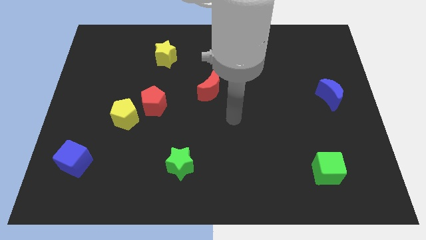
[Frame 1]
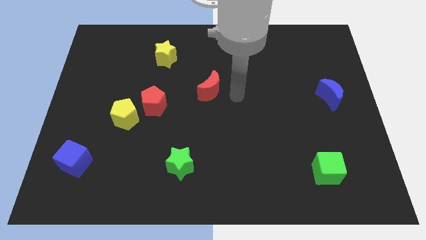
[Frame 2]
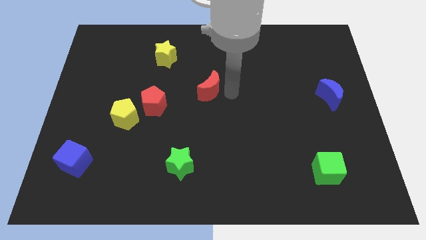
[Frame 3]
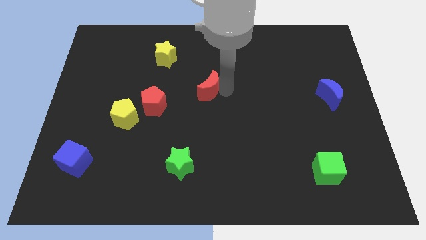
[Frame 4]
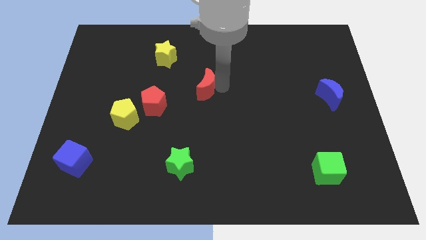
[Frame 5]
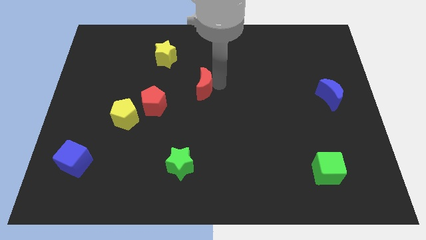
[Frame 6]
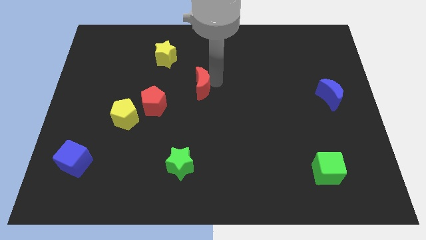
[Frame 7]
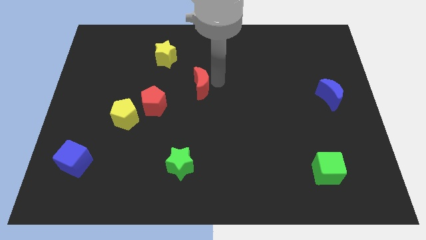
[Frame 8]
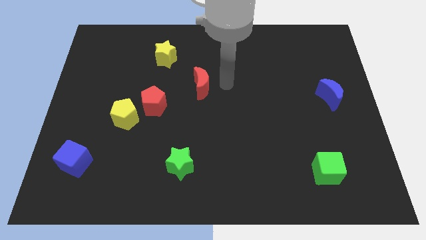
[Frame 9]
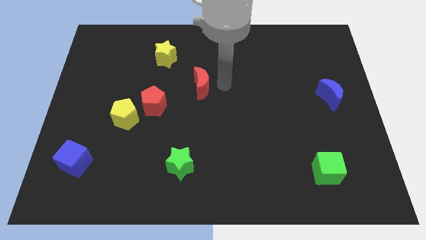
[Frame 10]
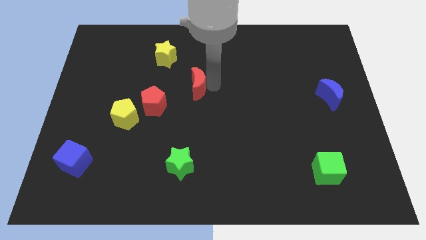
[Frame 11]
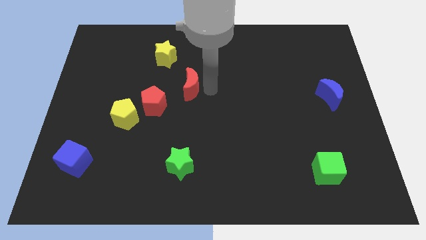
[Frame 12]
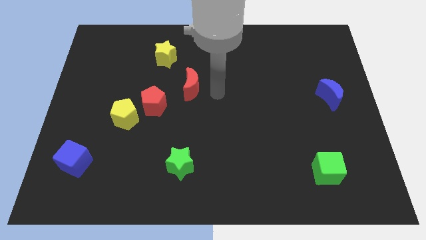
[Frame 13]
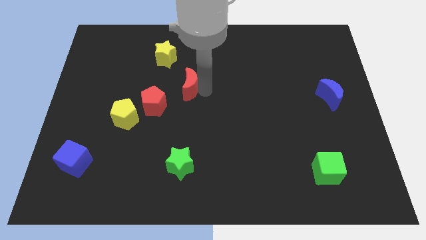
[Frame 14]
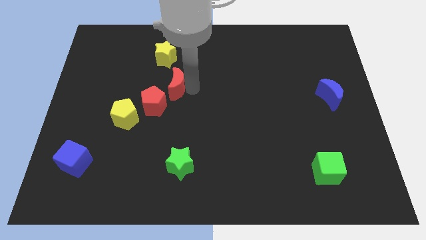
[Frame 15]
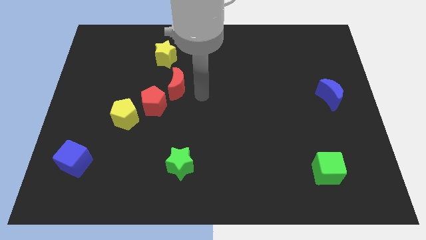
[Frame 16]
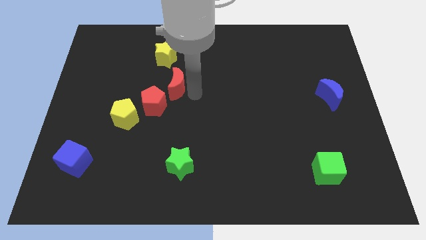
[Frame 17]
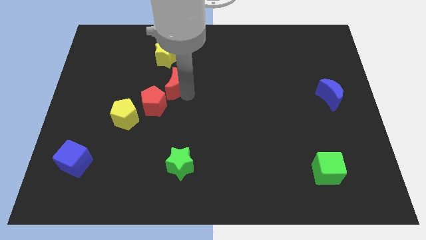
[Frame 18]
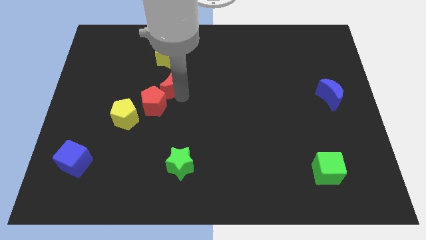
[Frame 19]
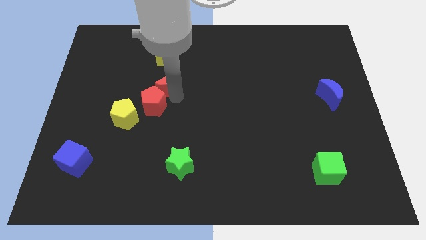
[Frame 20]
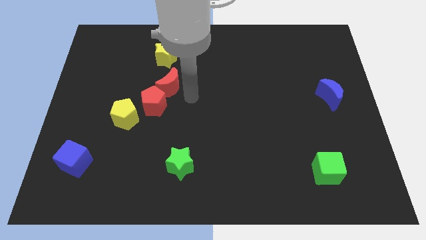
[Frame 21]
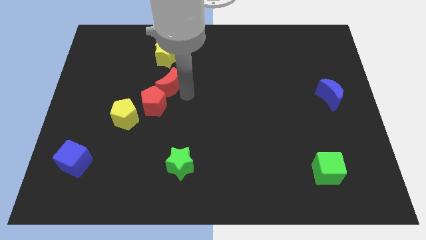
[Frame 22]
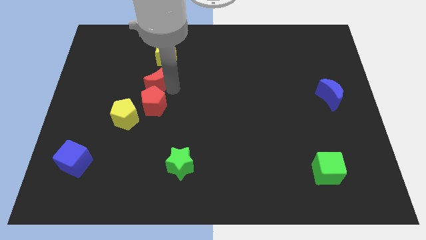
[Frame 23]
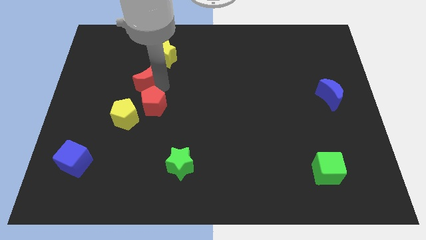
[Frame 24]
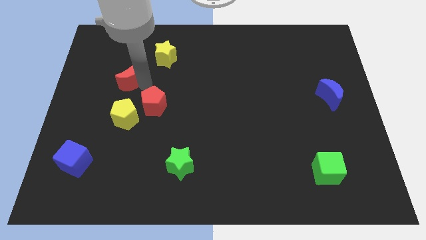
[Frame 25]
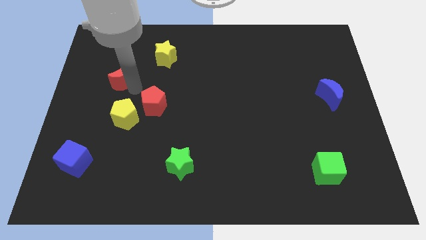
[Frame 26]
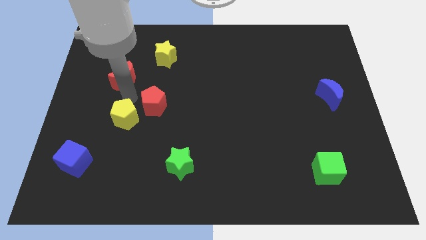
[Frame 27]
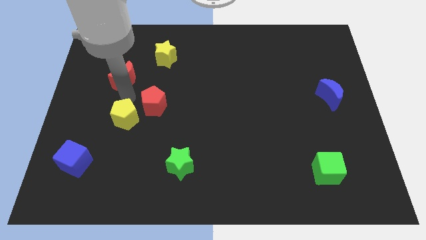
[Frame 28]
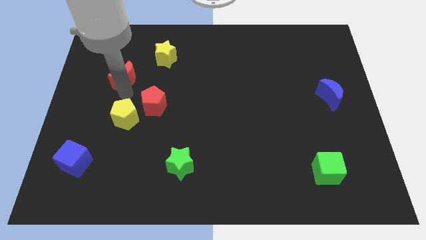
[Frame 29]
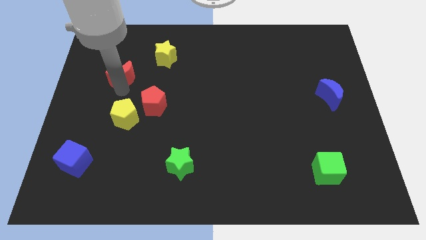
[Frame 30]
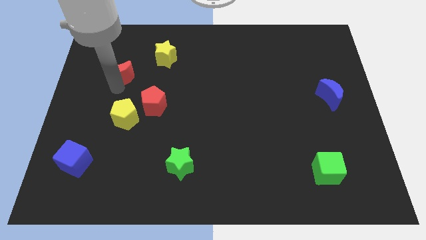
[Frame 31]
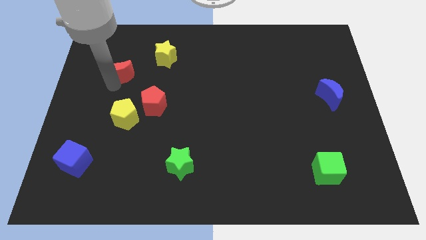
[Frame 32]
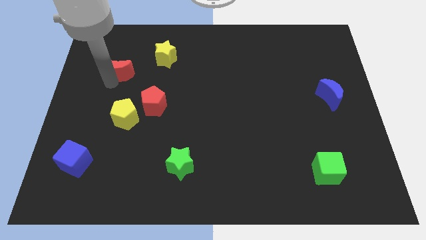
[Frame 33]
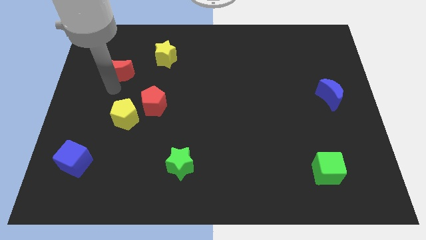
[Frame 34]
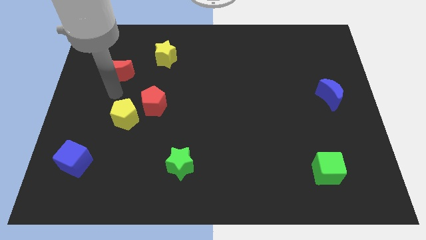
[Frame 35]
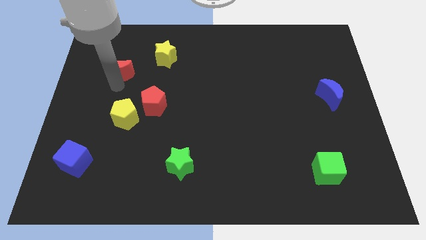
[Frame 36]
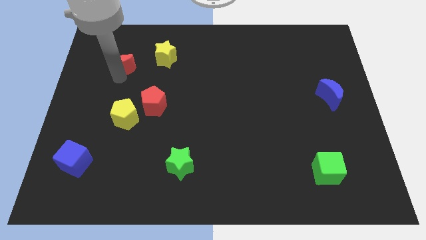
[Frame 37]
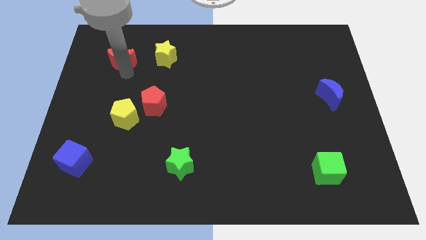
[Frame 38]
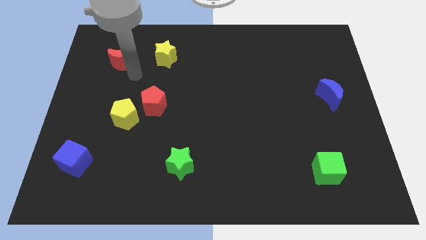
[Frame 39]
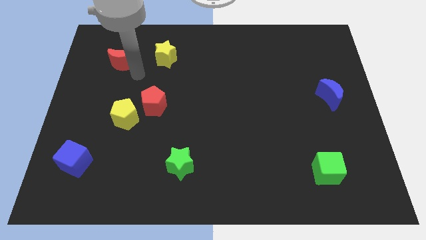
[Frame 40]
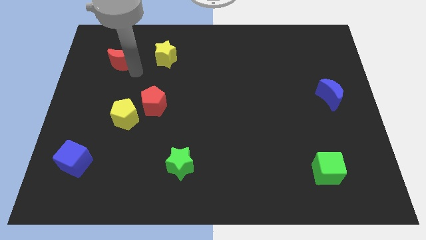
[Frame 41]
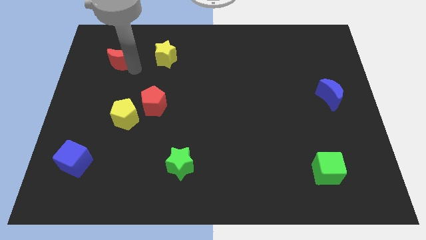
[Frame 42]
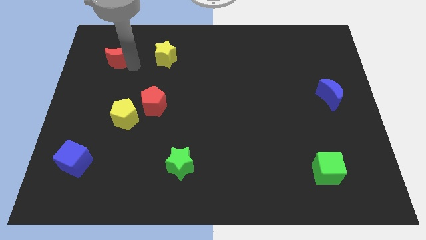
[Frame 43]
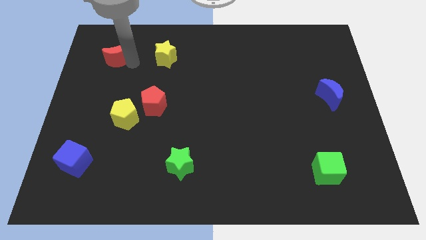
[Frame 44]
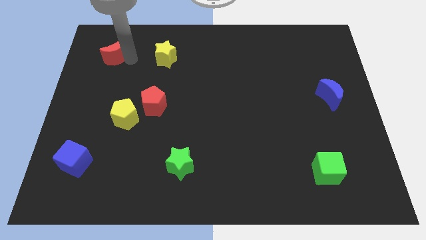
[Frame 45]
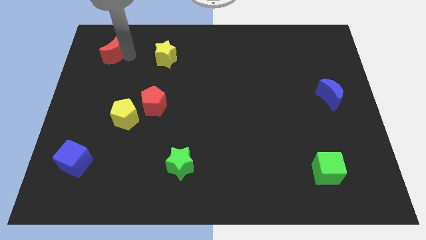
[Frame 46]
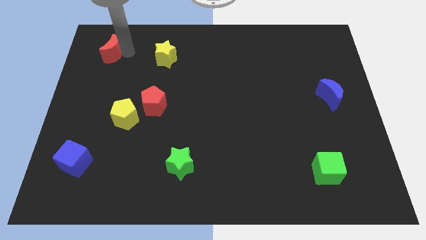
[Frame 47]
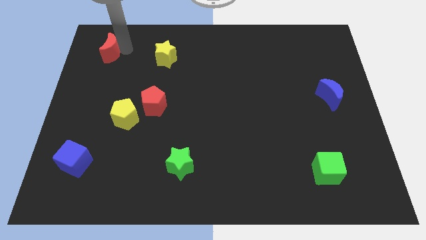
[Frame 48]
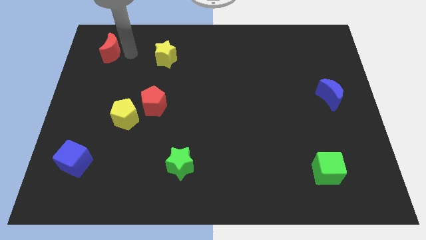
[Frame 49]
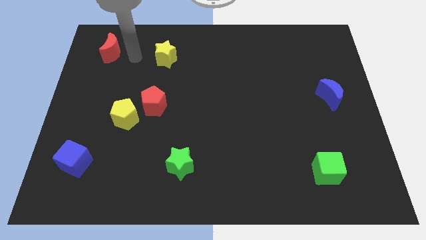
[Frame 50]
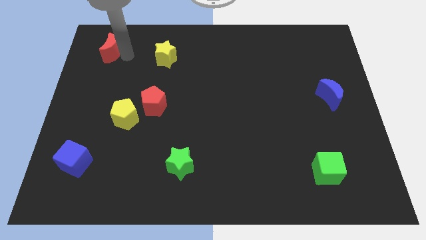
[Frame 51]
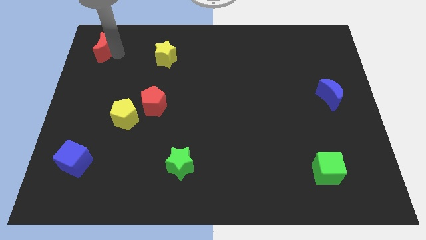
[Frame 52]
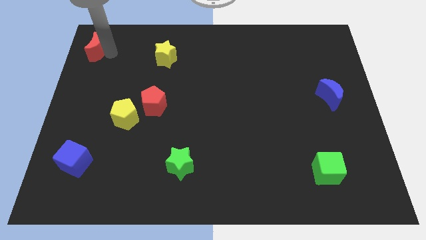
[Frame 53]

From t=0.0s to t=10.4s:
put the red moon to the top left of the board

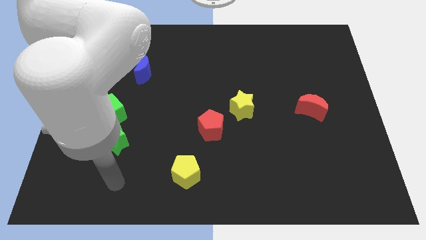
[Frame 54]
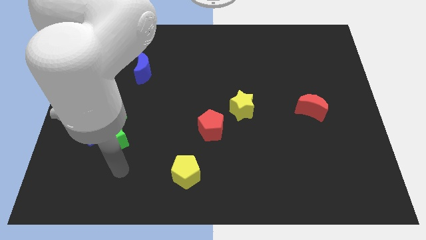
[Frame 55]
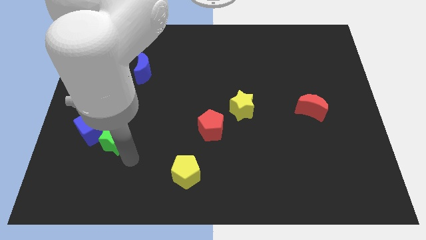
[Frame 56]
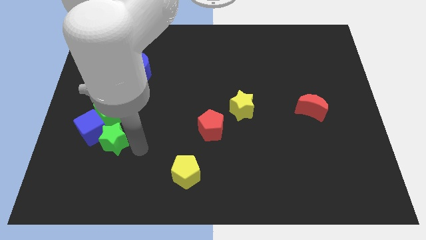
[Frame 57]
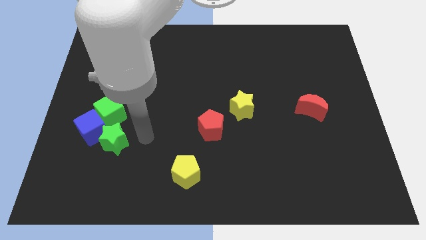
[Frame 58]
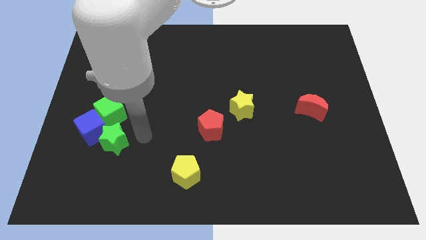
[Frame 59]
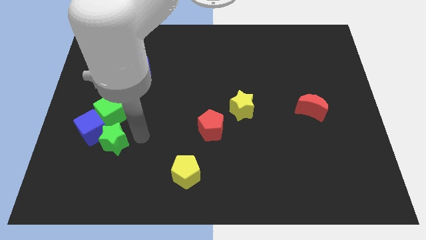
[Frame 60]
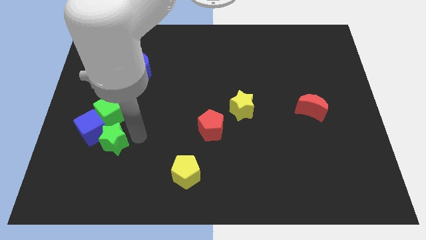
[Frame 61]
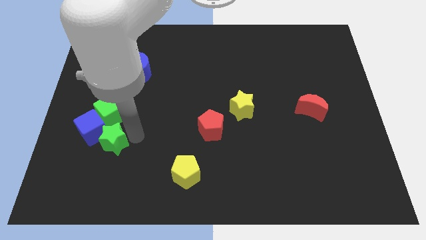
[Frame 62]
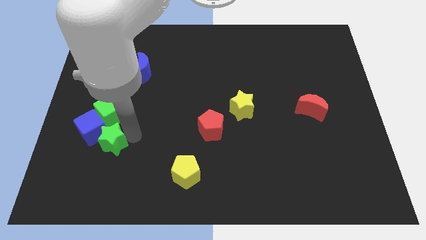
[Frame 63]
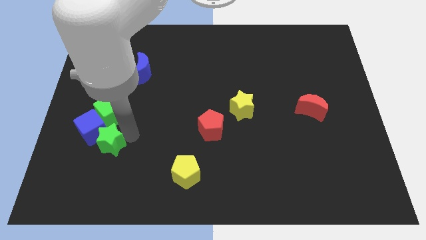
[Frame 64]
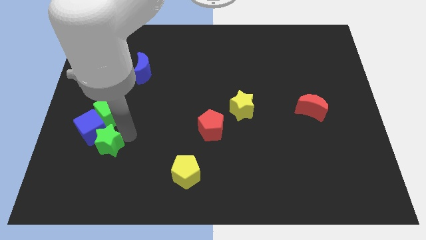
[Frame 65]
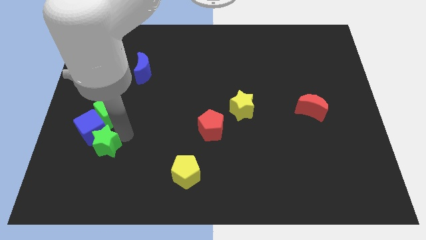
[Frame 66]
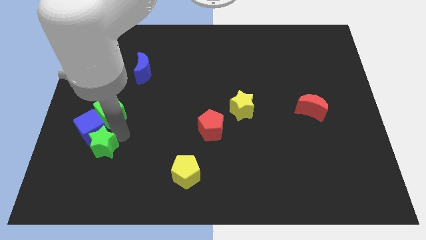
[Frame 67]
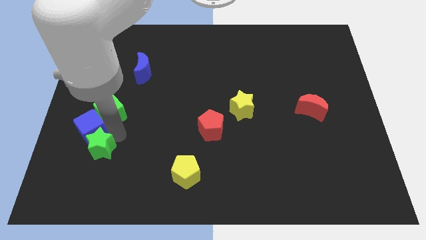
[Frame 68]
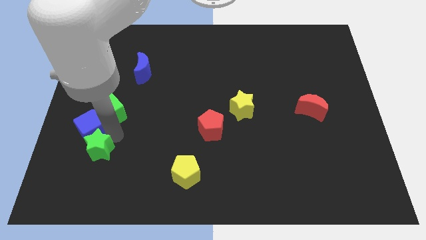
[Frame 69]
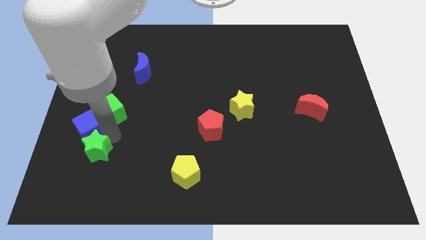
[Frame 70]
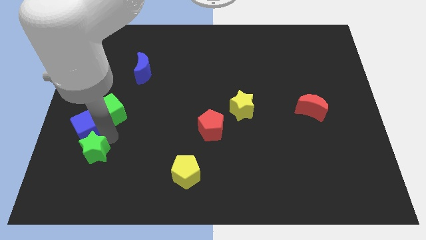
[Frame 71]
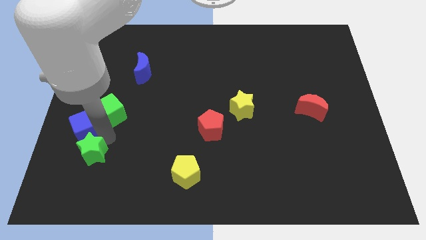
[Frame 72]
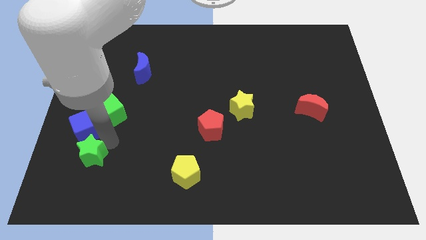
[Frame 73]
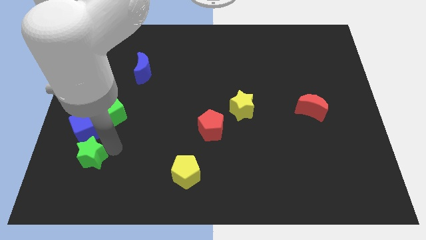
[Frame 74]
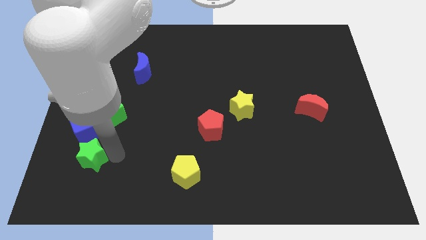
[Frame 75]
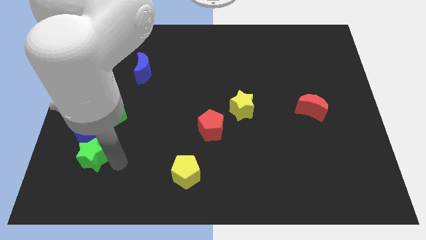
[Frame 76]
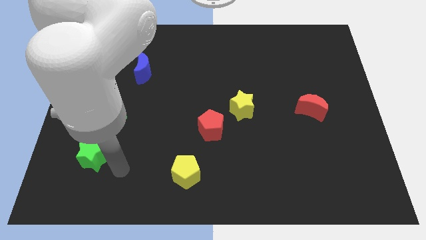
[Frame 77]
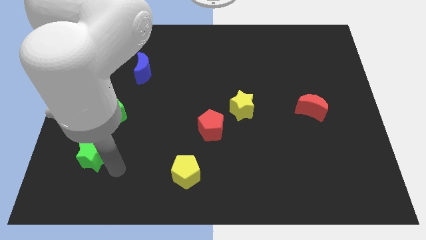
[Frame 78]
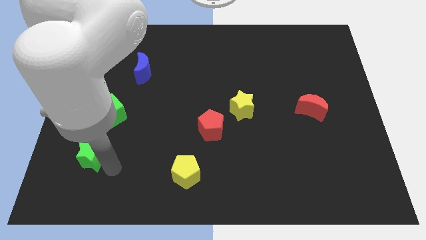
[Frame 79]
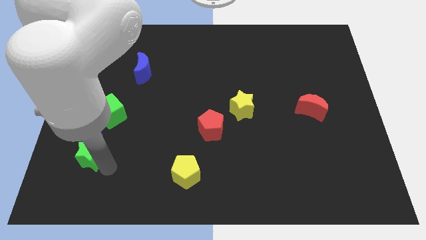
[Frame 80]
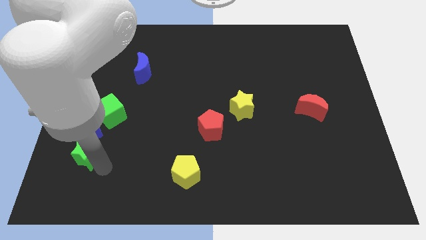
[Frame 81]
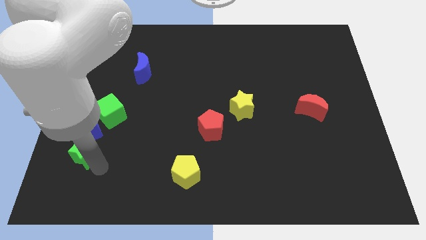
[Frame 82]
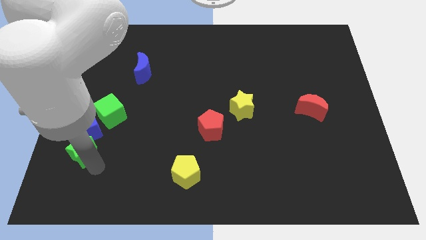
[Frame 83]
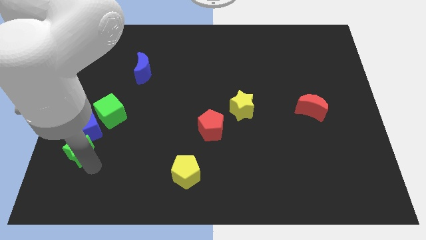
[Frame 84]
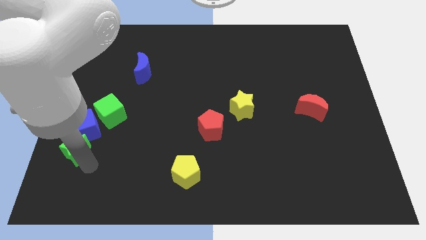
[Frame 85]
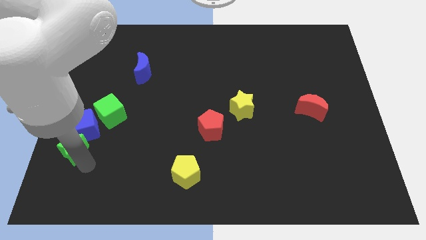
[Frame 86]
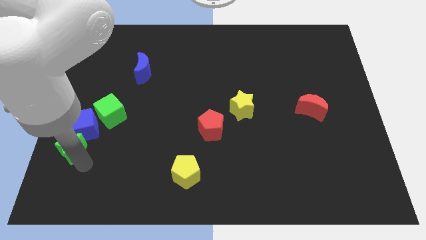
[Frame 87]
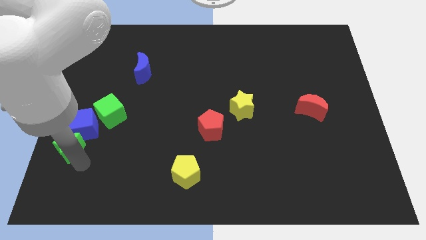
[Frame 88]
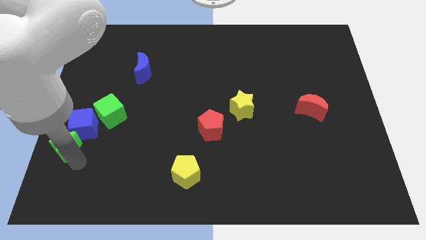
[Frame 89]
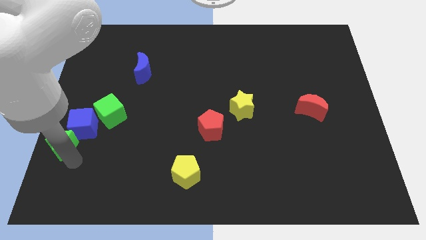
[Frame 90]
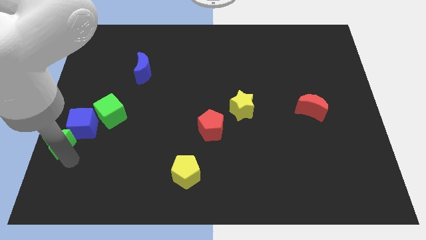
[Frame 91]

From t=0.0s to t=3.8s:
put the green star to the left side
